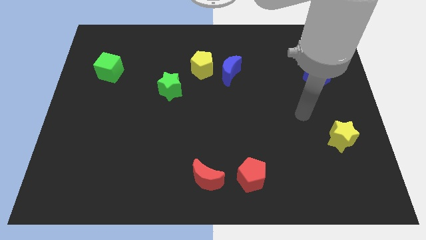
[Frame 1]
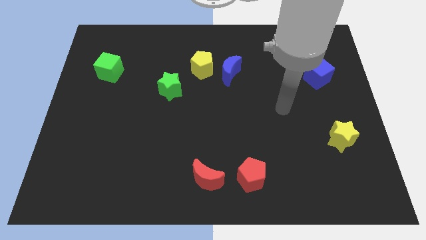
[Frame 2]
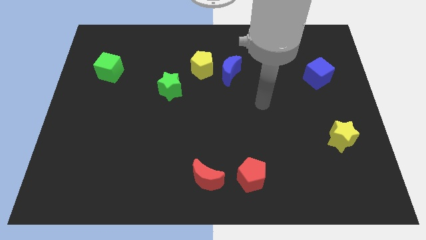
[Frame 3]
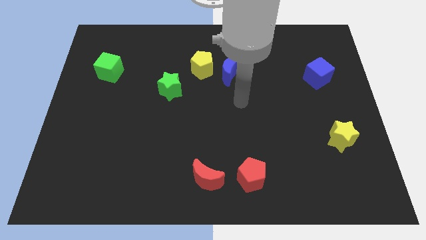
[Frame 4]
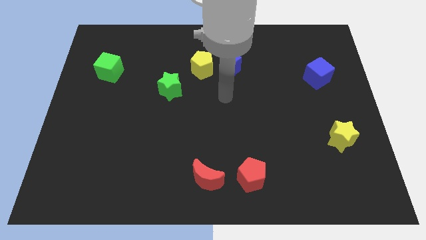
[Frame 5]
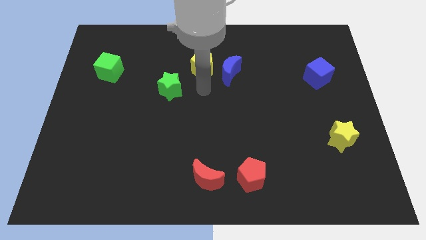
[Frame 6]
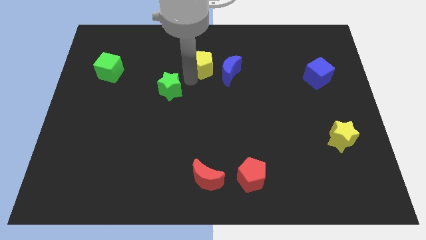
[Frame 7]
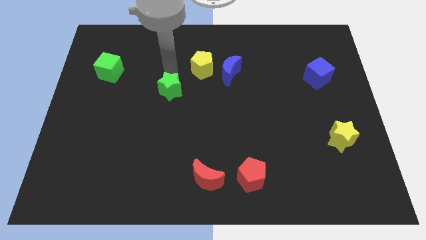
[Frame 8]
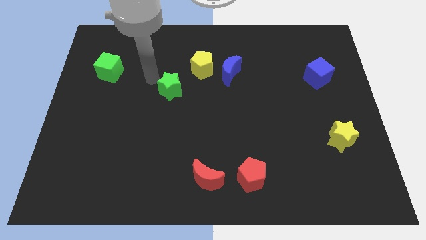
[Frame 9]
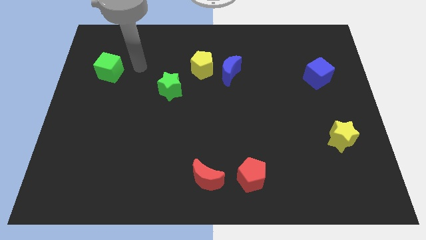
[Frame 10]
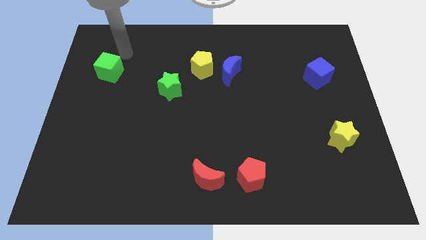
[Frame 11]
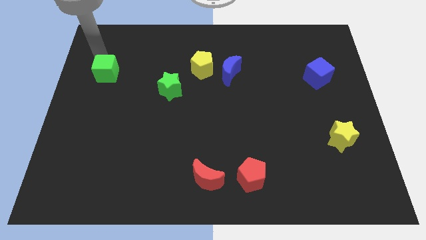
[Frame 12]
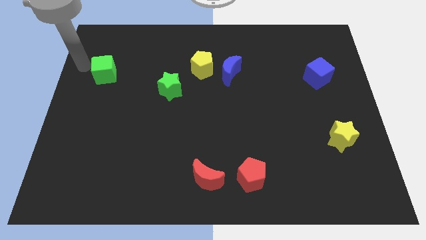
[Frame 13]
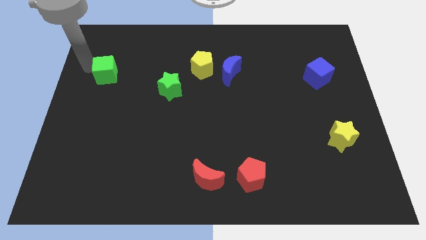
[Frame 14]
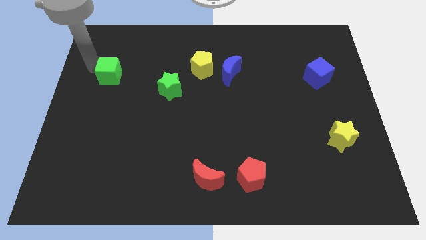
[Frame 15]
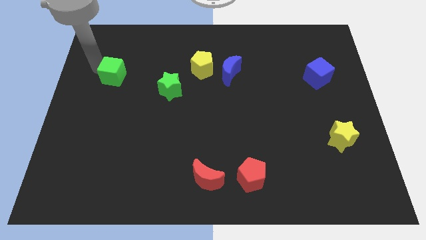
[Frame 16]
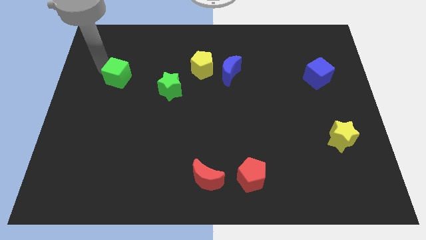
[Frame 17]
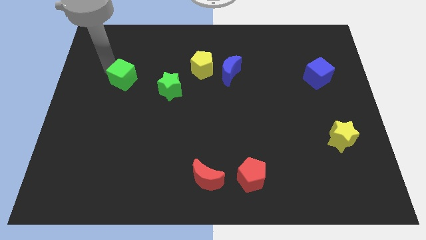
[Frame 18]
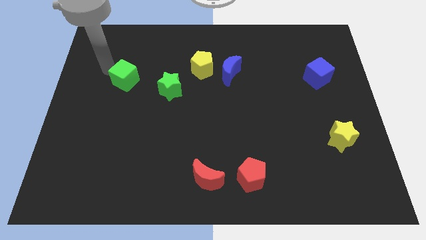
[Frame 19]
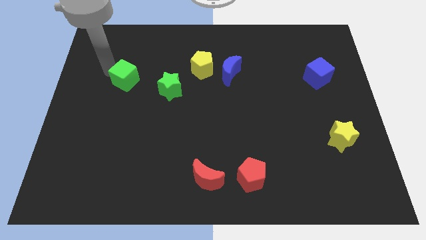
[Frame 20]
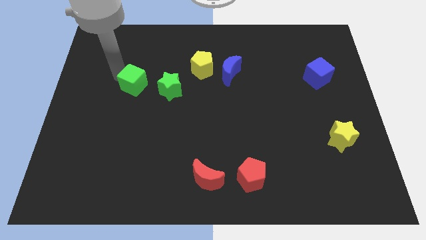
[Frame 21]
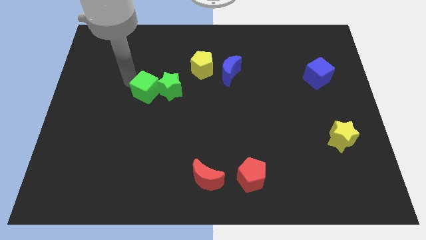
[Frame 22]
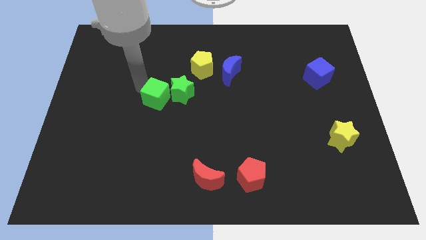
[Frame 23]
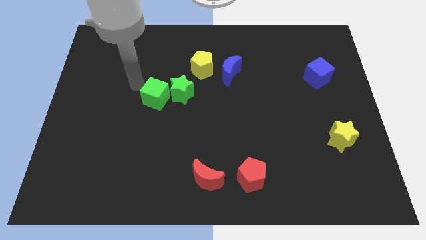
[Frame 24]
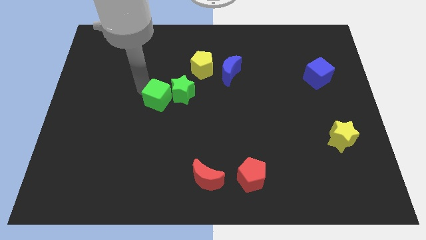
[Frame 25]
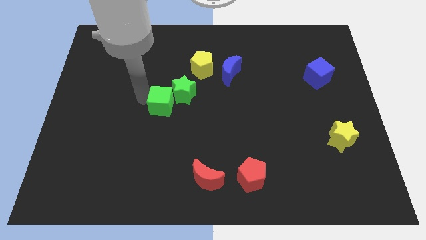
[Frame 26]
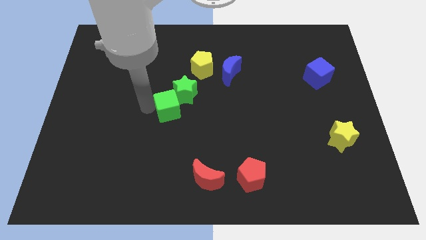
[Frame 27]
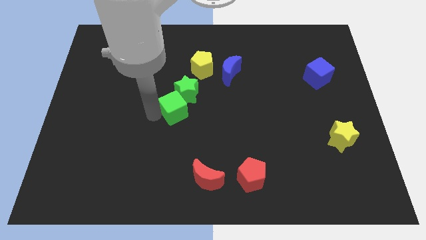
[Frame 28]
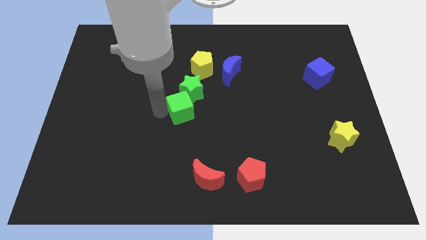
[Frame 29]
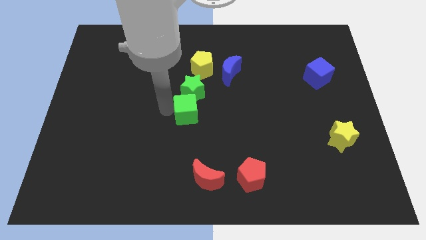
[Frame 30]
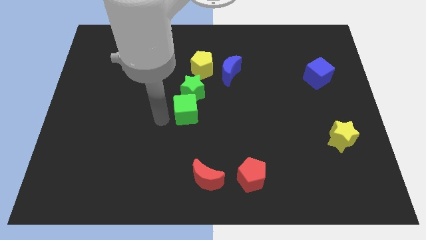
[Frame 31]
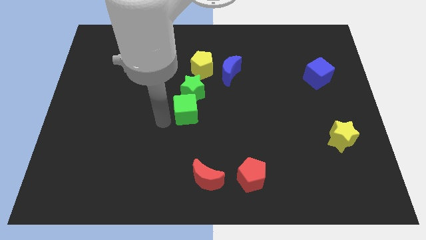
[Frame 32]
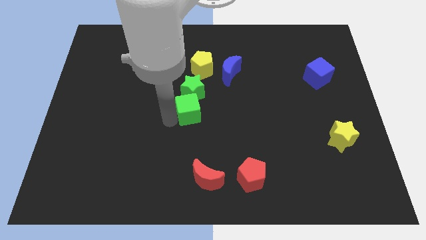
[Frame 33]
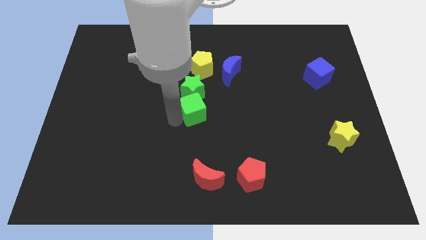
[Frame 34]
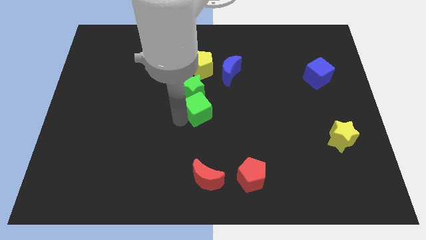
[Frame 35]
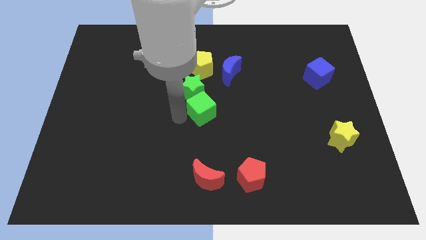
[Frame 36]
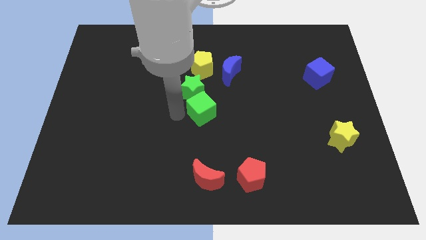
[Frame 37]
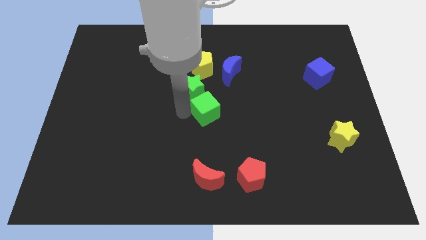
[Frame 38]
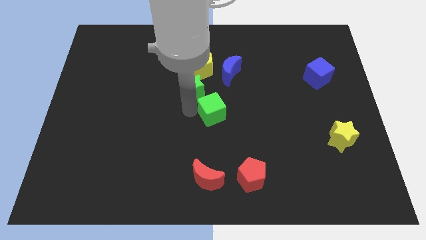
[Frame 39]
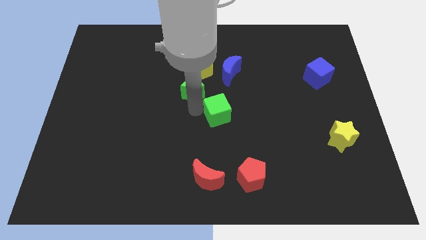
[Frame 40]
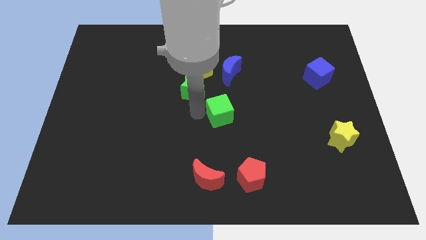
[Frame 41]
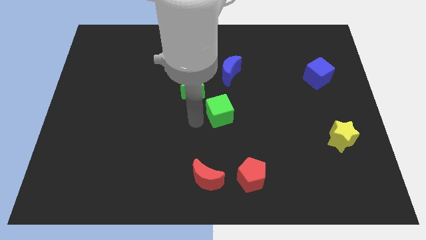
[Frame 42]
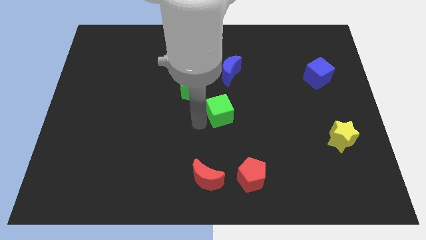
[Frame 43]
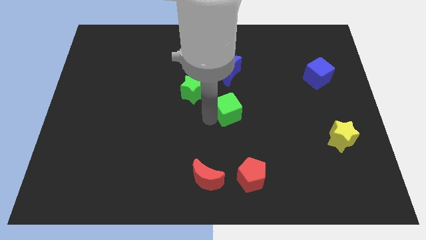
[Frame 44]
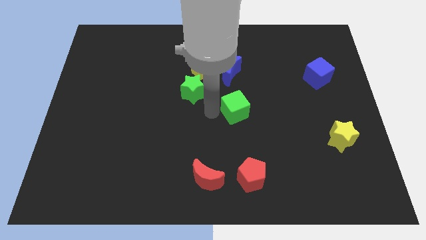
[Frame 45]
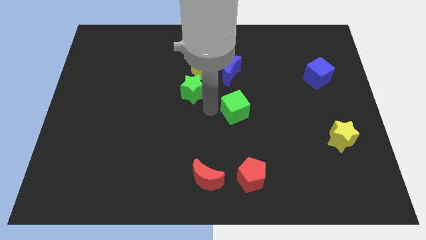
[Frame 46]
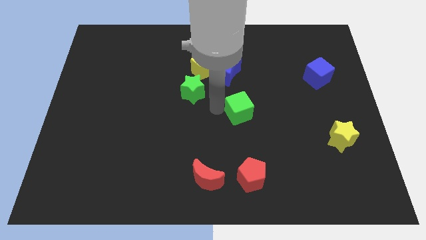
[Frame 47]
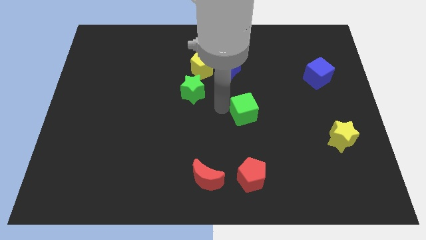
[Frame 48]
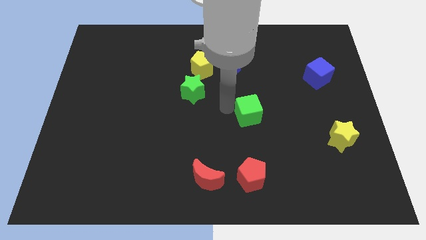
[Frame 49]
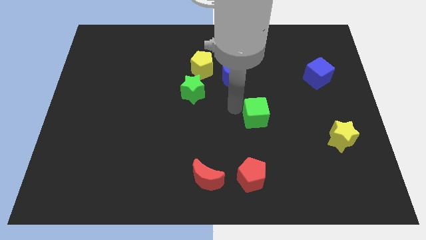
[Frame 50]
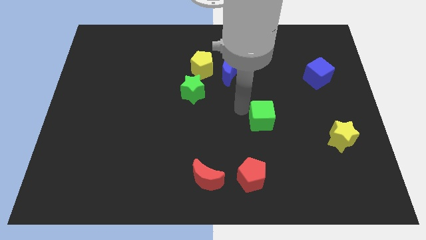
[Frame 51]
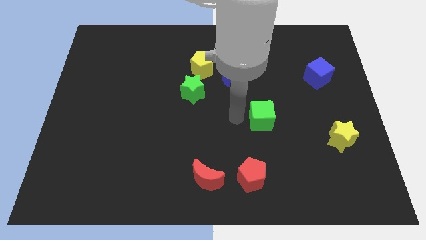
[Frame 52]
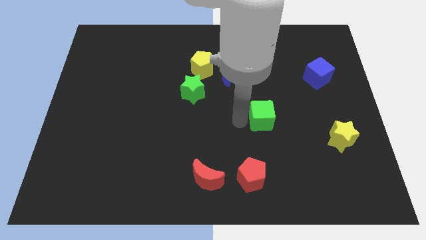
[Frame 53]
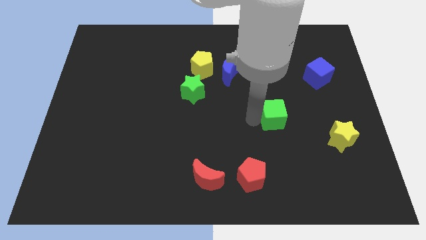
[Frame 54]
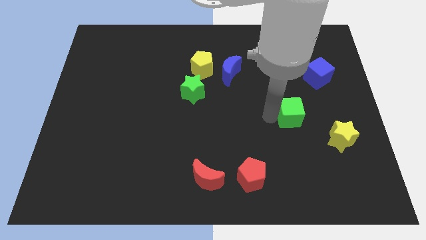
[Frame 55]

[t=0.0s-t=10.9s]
slide the green cube diagonally up and to the left of the yellow star
